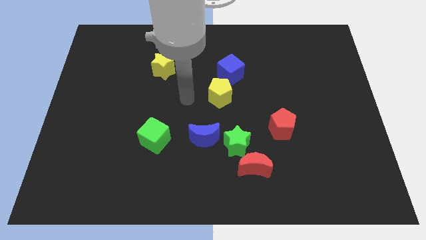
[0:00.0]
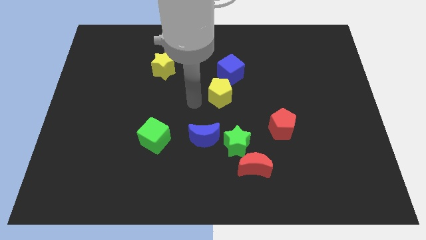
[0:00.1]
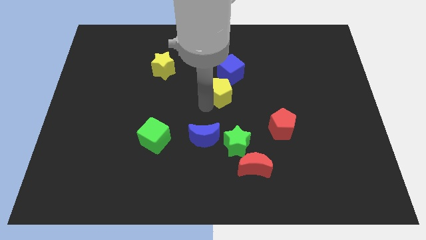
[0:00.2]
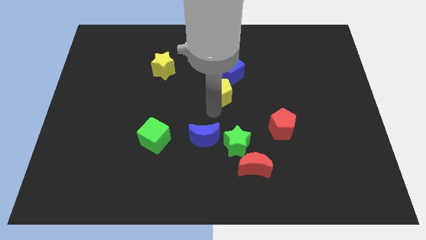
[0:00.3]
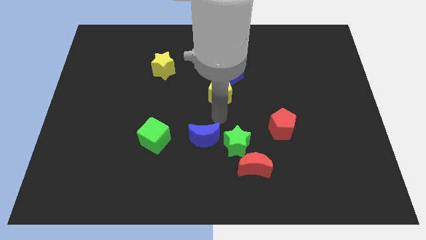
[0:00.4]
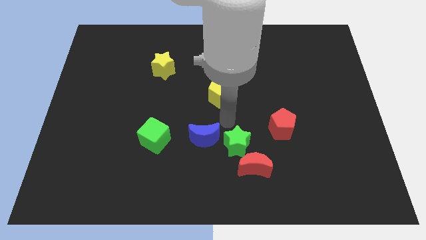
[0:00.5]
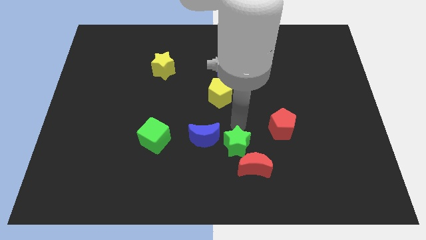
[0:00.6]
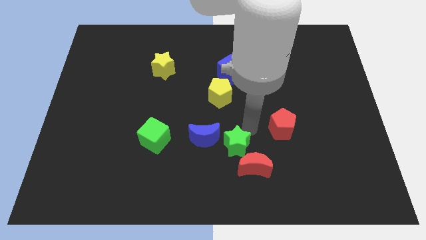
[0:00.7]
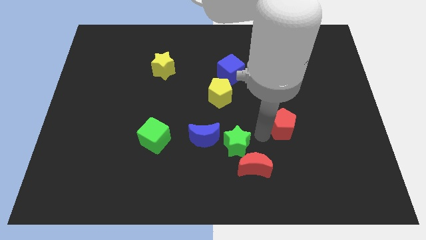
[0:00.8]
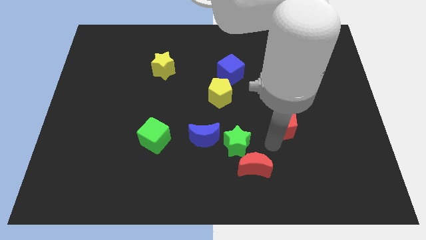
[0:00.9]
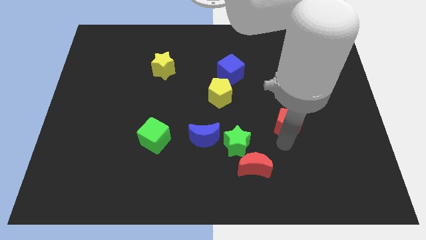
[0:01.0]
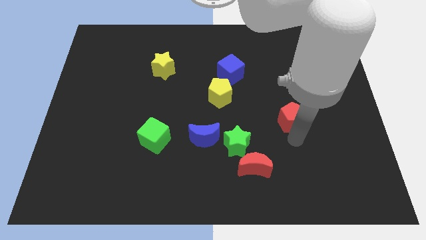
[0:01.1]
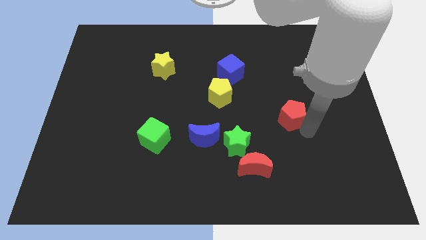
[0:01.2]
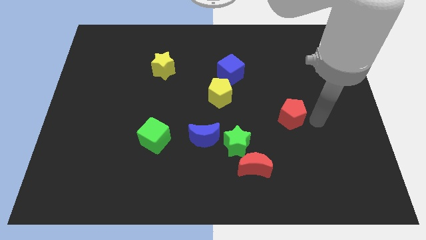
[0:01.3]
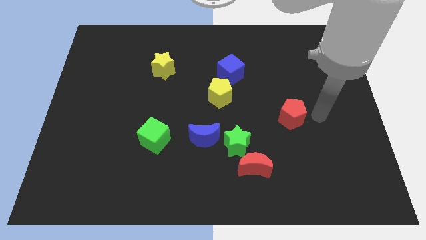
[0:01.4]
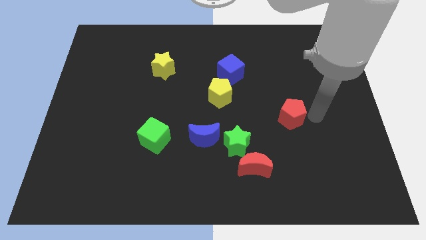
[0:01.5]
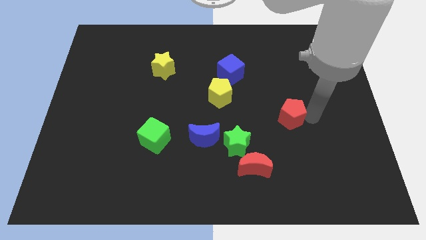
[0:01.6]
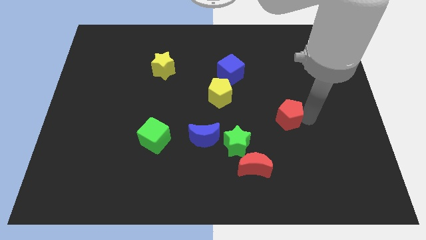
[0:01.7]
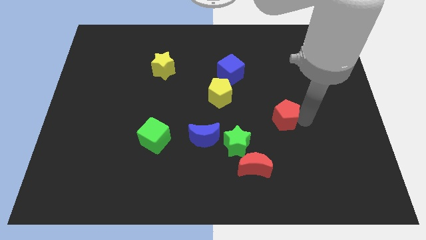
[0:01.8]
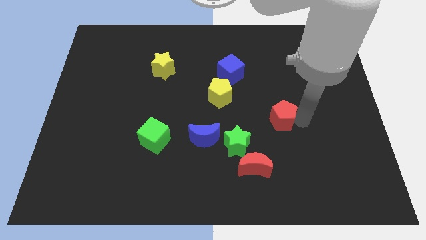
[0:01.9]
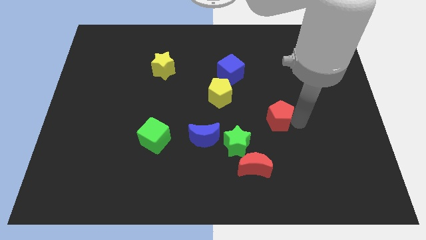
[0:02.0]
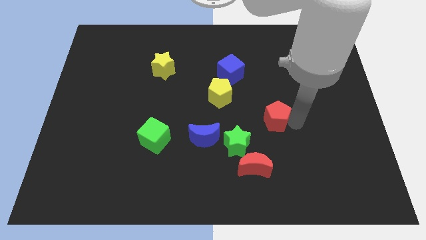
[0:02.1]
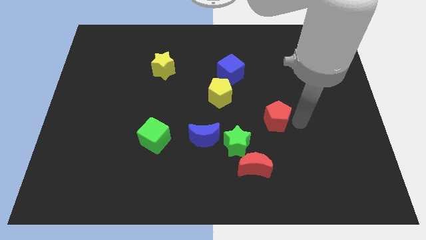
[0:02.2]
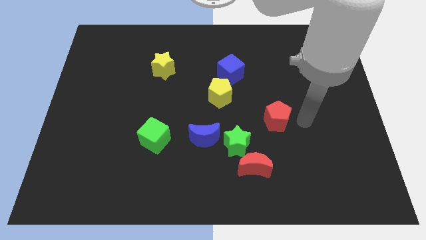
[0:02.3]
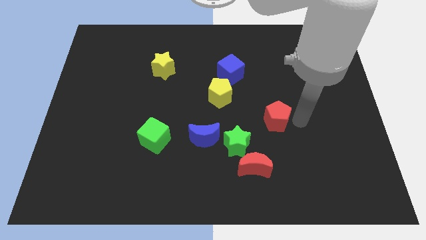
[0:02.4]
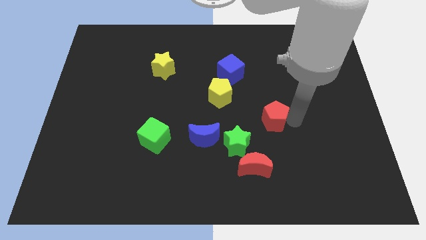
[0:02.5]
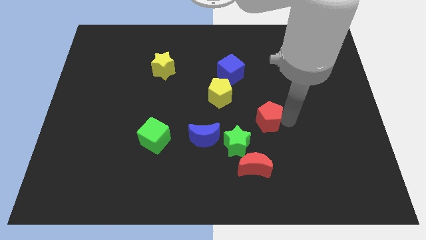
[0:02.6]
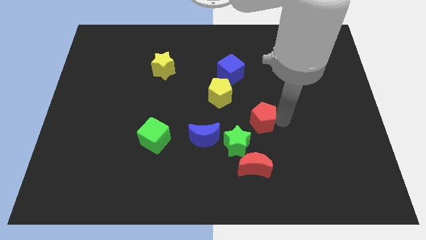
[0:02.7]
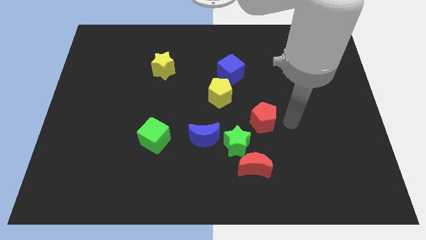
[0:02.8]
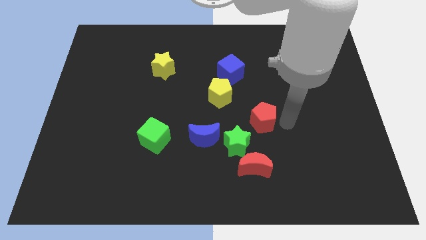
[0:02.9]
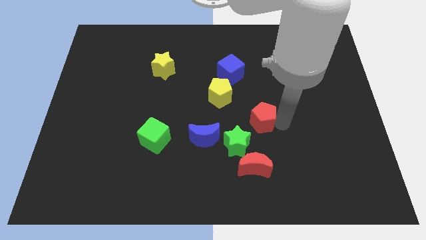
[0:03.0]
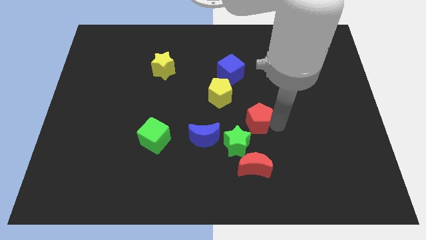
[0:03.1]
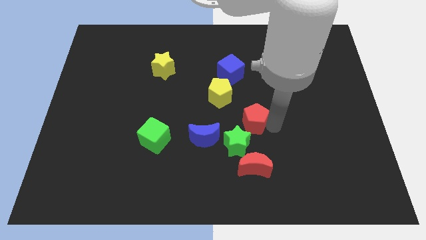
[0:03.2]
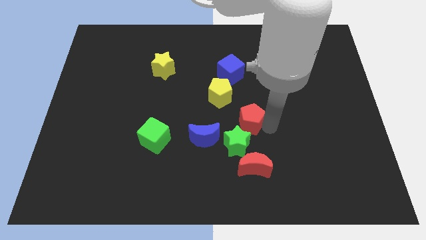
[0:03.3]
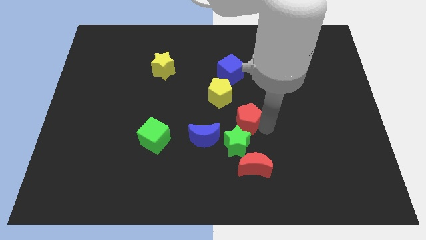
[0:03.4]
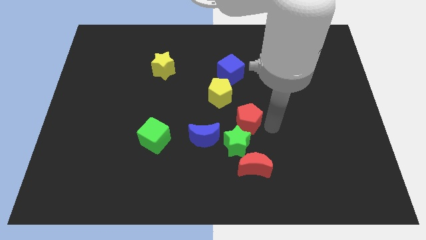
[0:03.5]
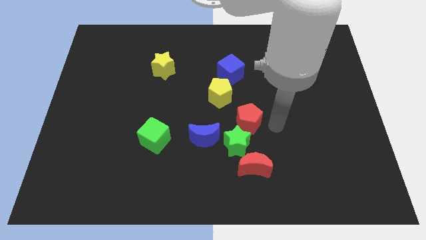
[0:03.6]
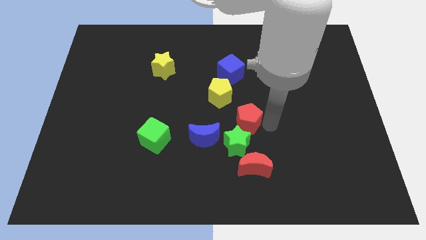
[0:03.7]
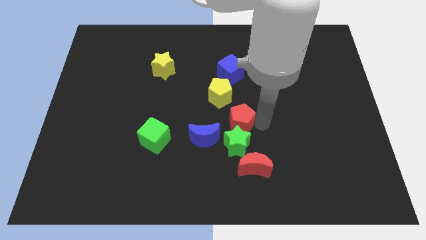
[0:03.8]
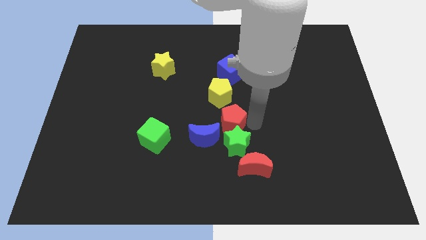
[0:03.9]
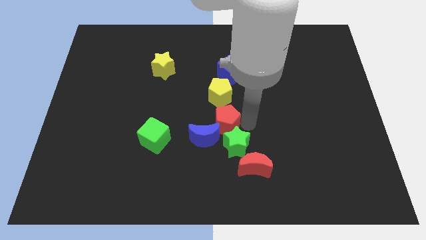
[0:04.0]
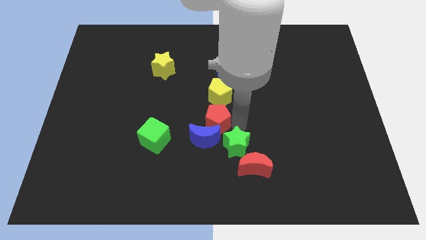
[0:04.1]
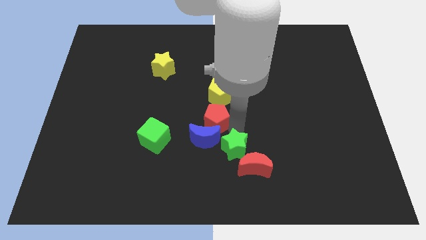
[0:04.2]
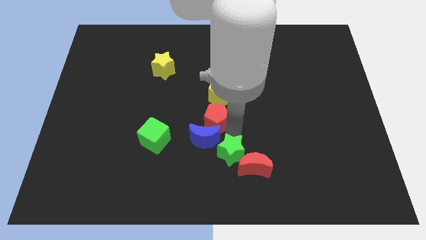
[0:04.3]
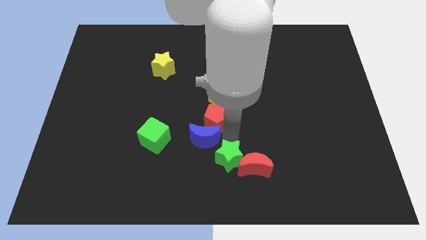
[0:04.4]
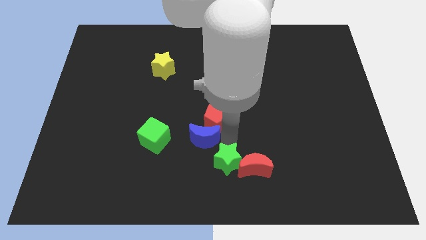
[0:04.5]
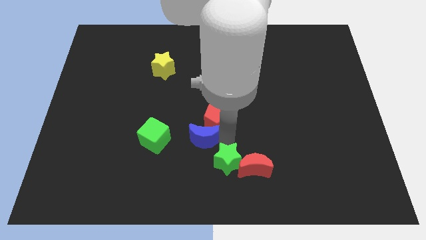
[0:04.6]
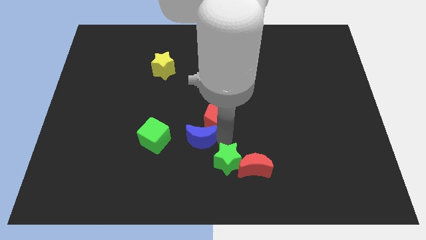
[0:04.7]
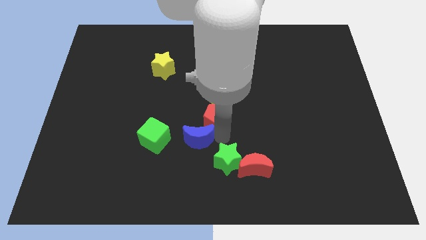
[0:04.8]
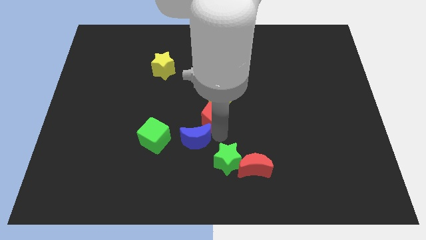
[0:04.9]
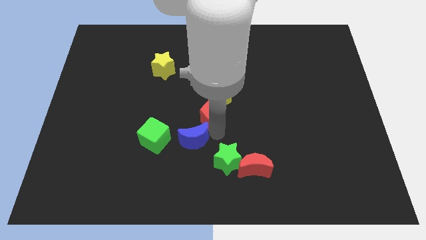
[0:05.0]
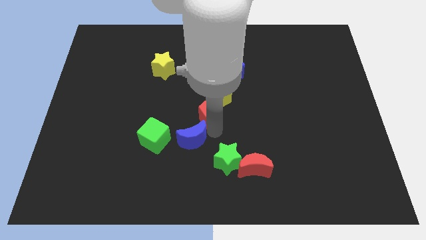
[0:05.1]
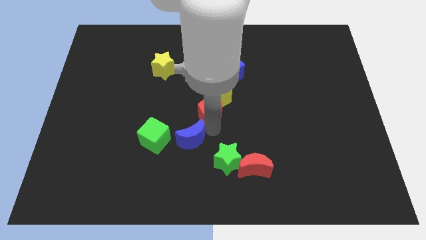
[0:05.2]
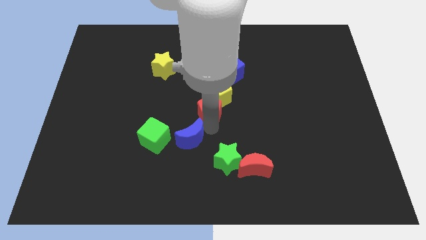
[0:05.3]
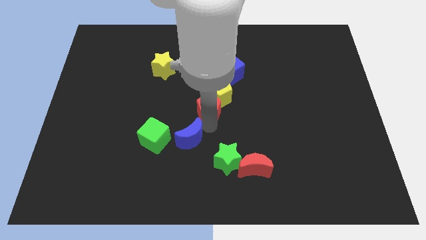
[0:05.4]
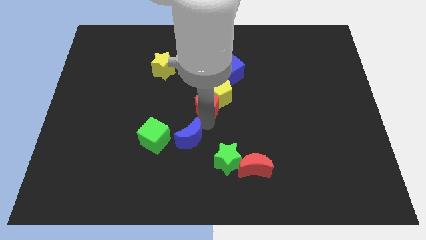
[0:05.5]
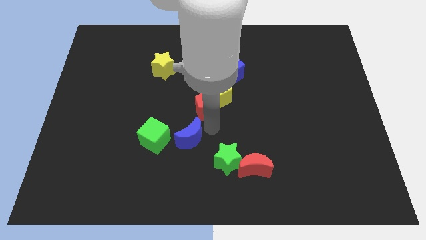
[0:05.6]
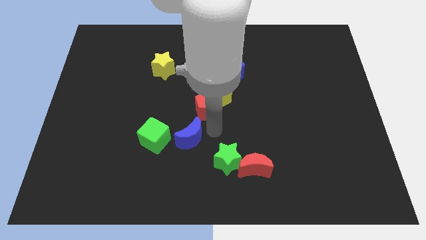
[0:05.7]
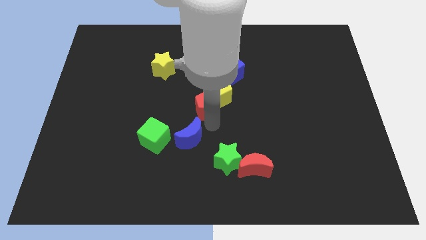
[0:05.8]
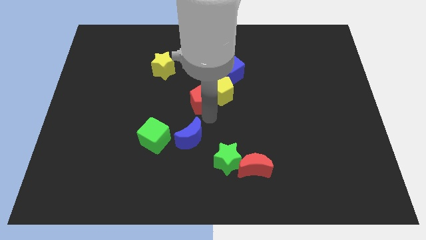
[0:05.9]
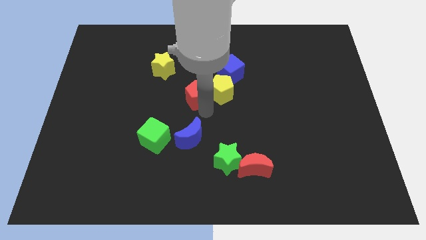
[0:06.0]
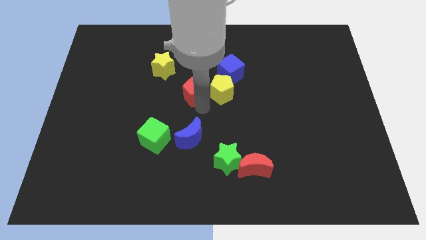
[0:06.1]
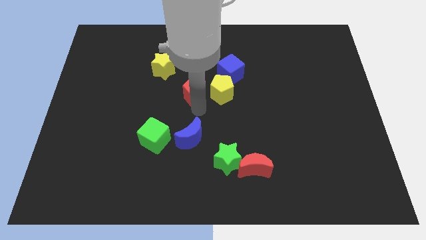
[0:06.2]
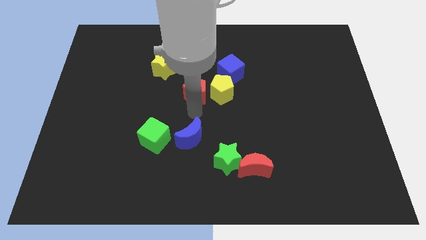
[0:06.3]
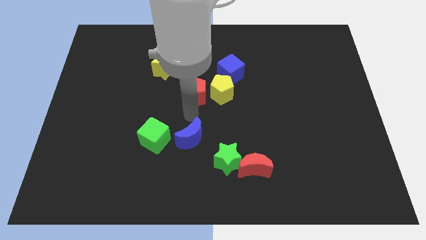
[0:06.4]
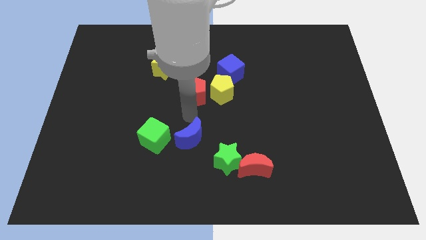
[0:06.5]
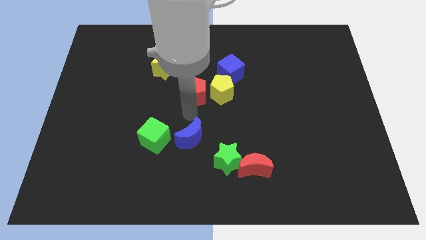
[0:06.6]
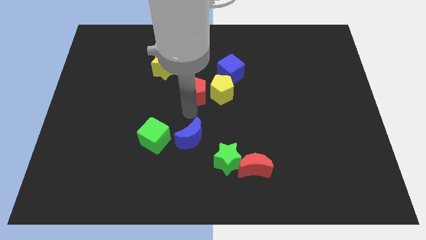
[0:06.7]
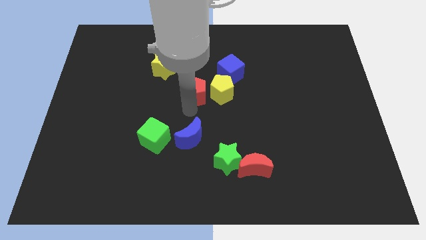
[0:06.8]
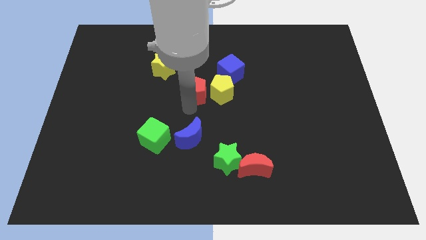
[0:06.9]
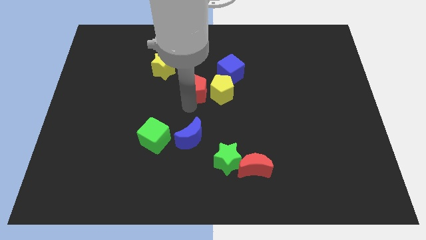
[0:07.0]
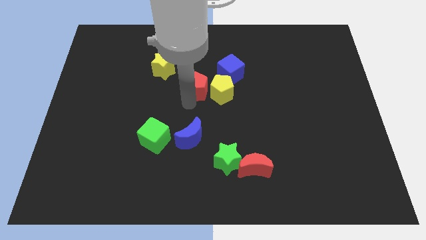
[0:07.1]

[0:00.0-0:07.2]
move the red pentagon upwards and left

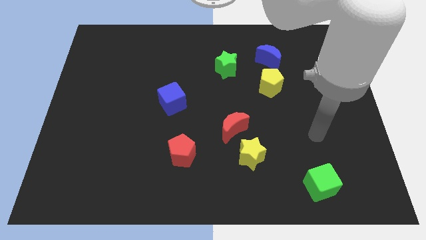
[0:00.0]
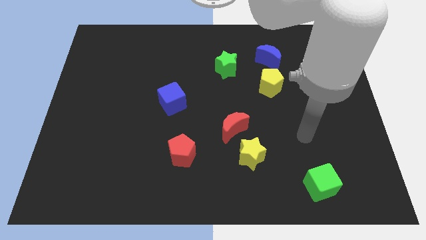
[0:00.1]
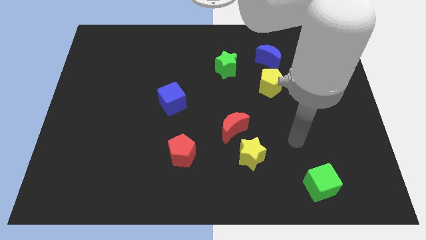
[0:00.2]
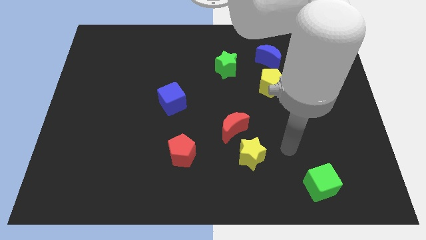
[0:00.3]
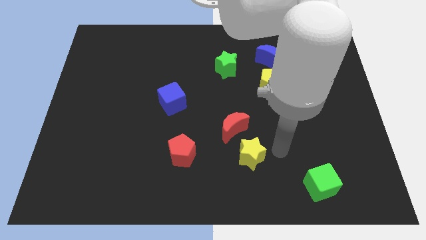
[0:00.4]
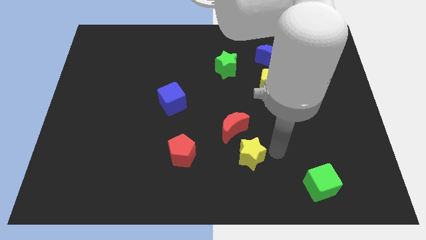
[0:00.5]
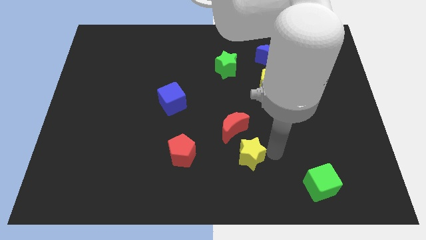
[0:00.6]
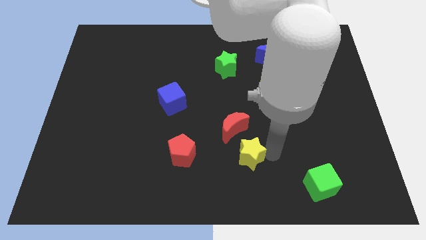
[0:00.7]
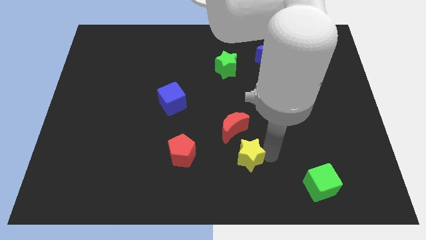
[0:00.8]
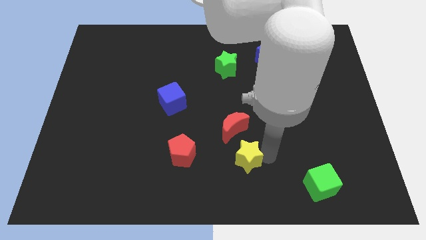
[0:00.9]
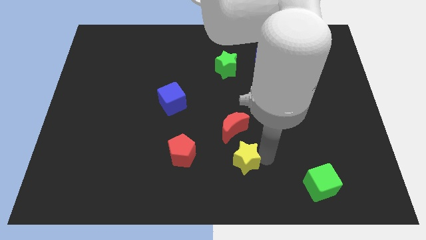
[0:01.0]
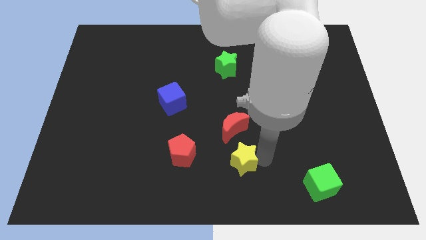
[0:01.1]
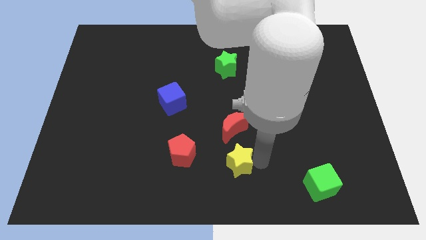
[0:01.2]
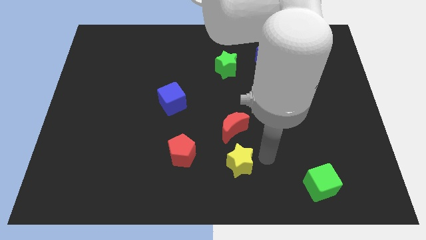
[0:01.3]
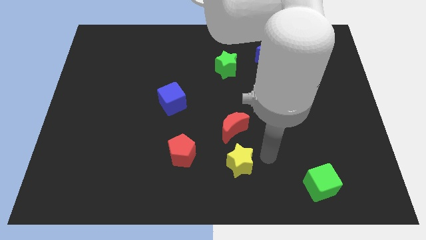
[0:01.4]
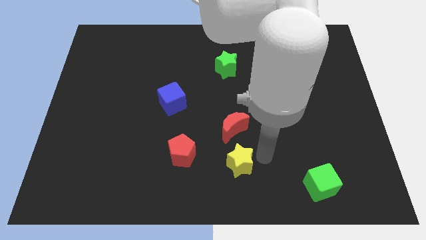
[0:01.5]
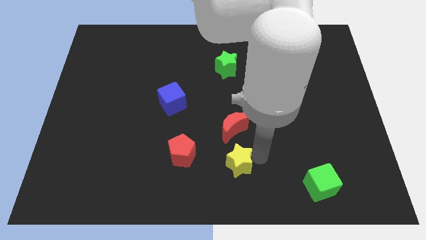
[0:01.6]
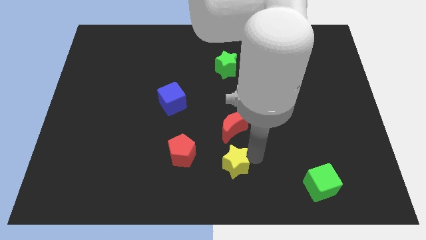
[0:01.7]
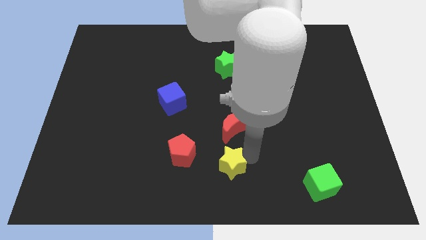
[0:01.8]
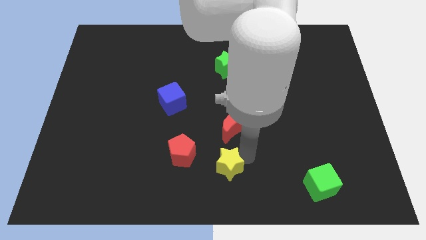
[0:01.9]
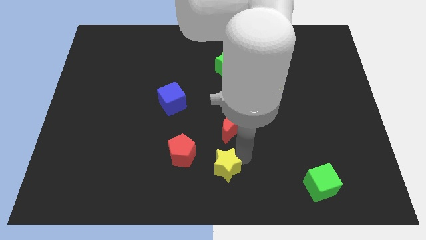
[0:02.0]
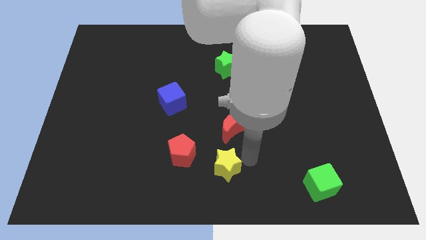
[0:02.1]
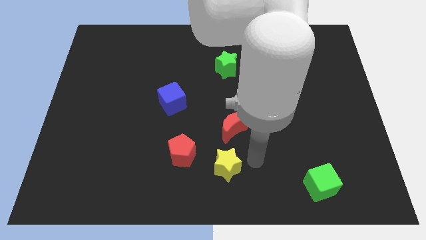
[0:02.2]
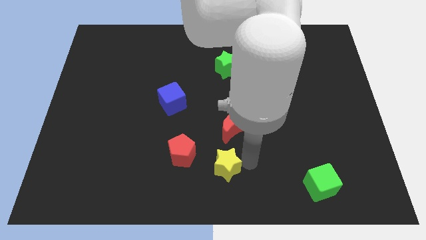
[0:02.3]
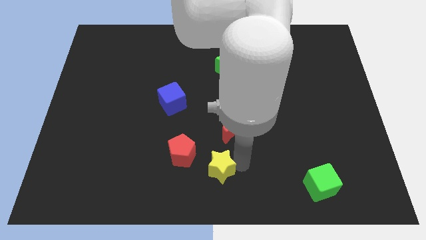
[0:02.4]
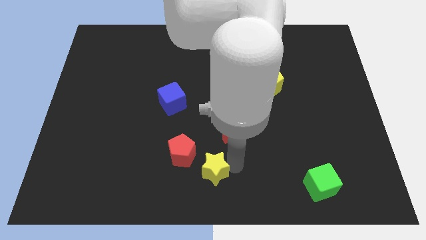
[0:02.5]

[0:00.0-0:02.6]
slightly move the yellow star to the left
